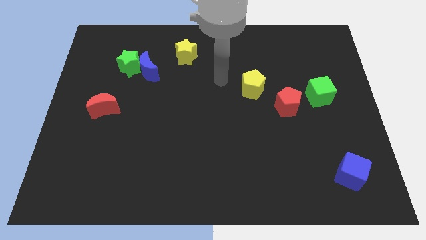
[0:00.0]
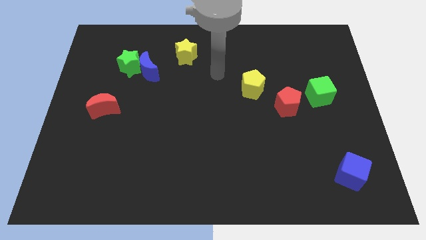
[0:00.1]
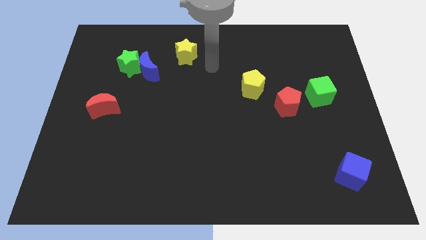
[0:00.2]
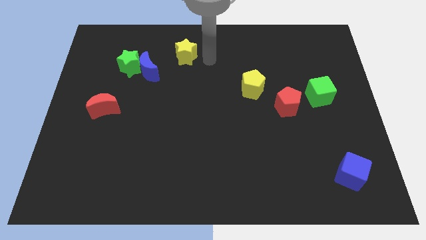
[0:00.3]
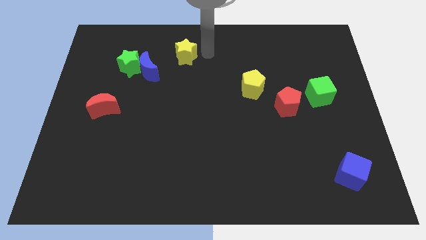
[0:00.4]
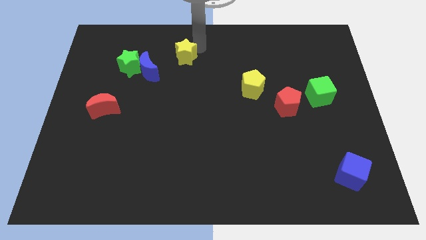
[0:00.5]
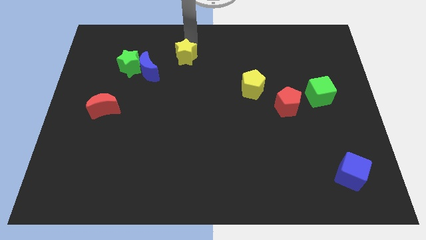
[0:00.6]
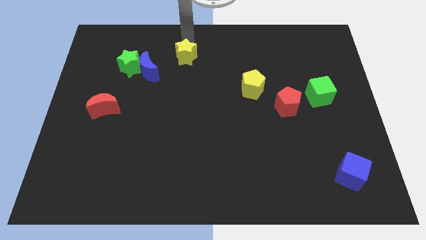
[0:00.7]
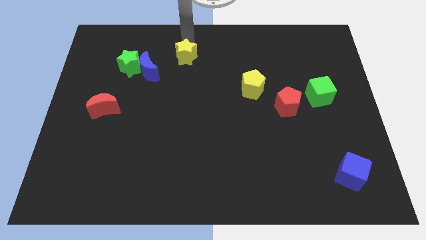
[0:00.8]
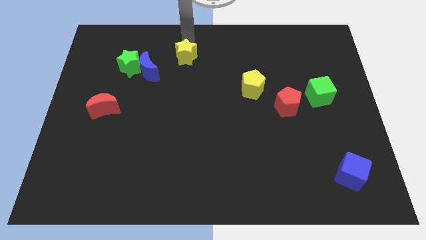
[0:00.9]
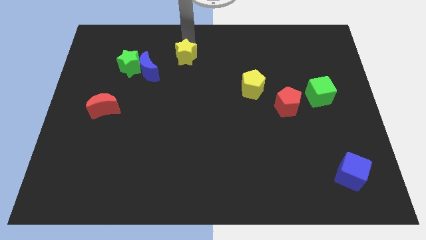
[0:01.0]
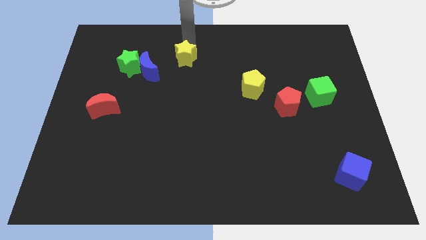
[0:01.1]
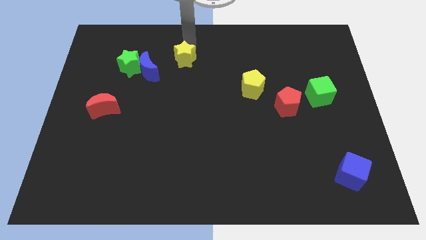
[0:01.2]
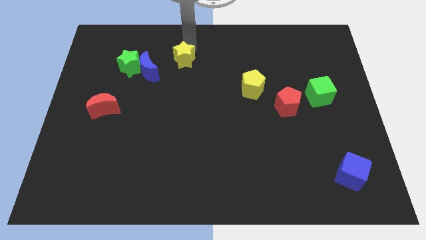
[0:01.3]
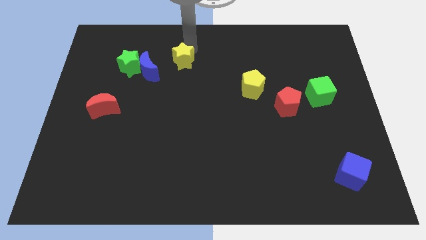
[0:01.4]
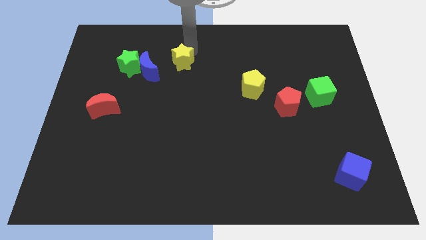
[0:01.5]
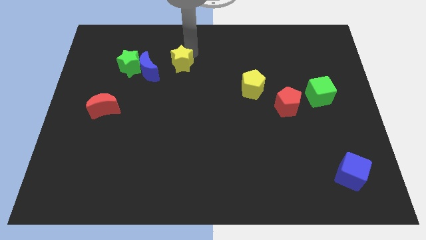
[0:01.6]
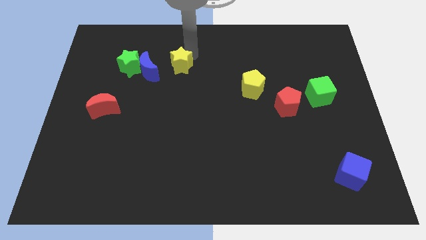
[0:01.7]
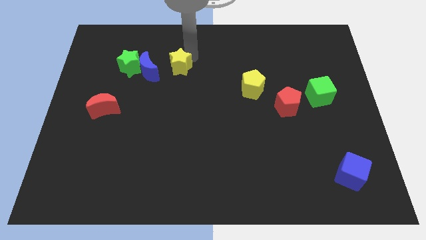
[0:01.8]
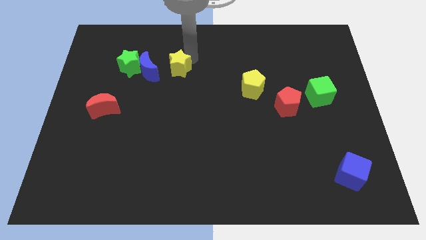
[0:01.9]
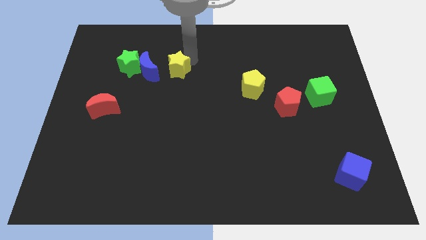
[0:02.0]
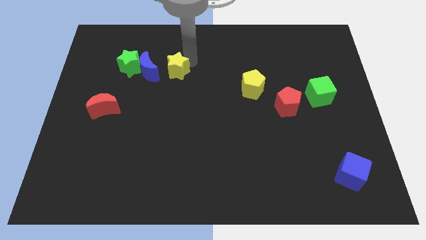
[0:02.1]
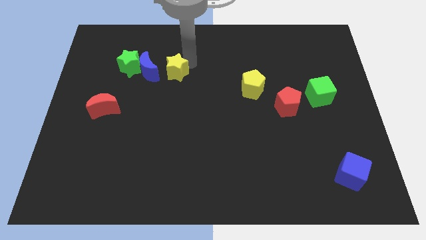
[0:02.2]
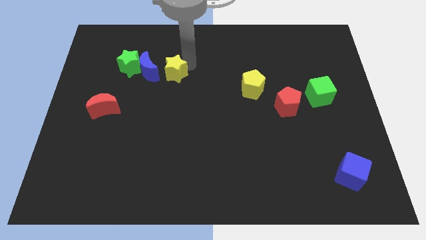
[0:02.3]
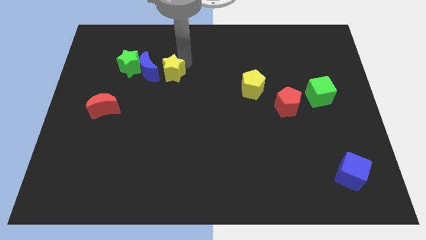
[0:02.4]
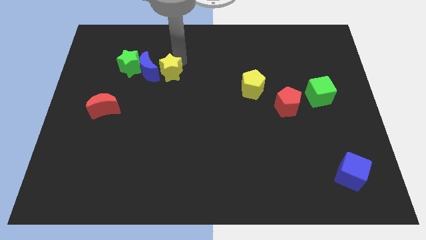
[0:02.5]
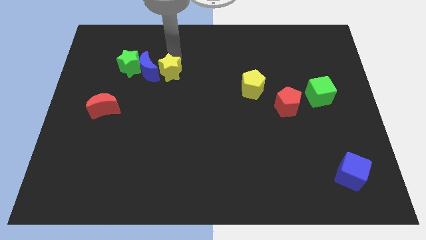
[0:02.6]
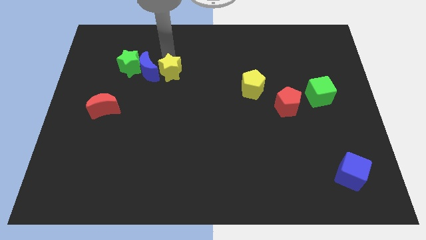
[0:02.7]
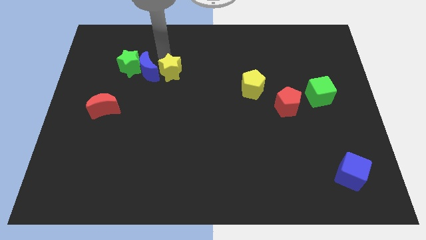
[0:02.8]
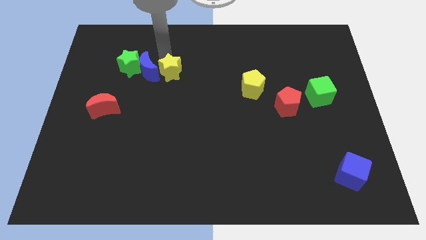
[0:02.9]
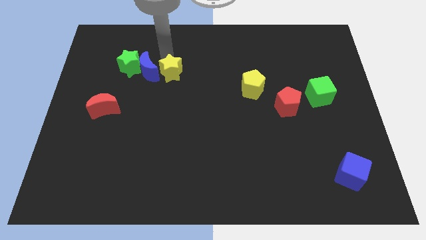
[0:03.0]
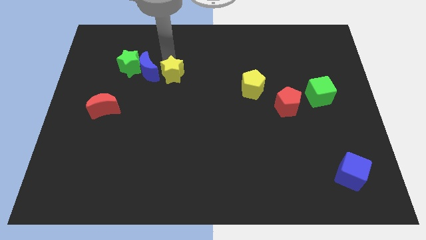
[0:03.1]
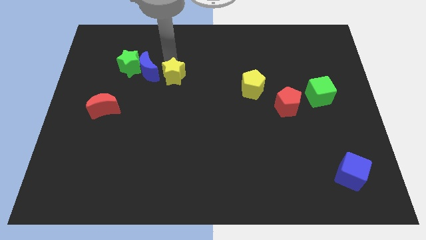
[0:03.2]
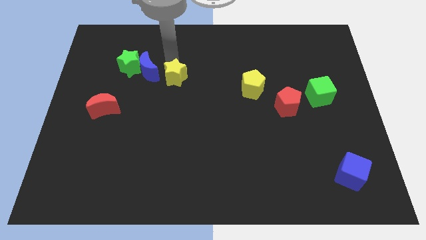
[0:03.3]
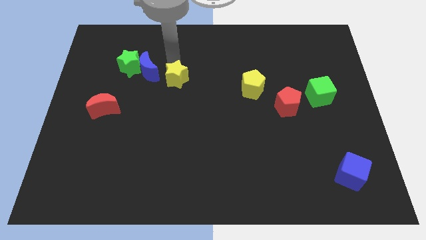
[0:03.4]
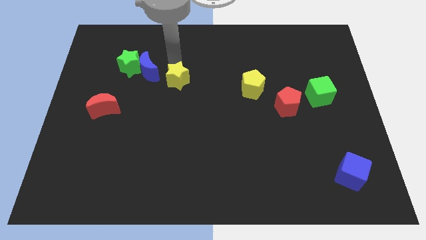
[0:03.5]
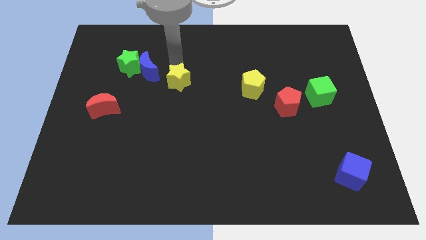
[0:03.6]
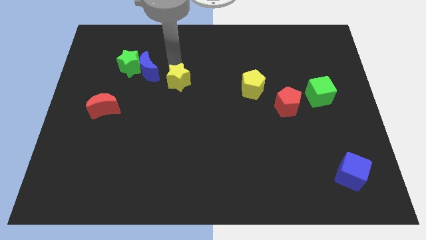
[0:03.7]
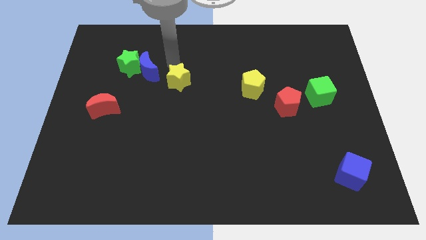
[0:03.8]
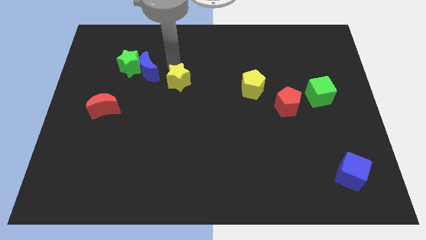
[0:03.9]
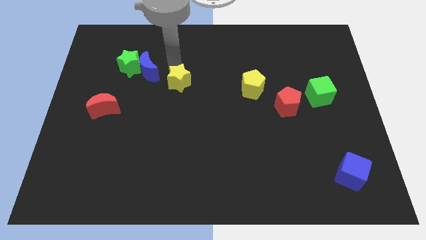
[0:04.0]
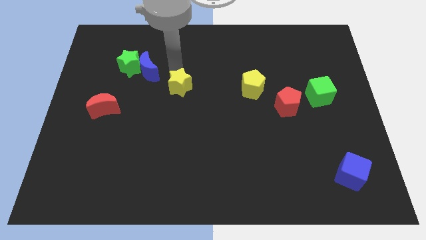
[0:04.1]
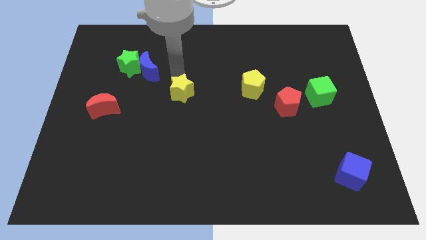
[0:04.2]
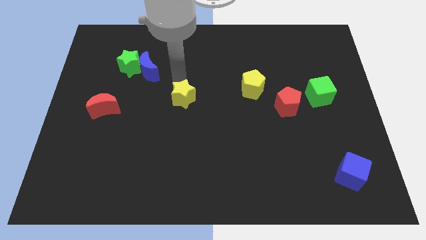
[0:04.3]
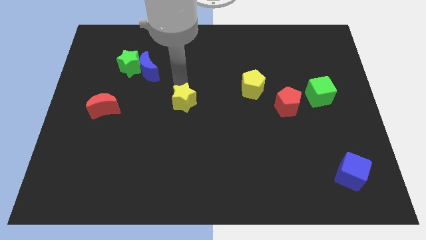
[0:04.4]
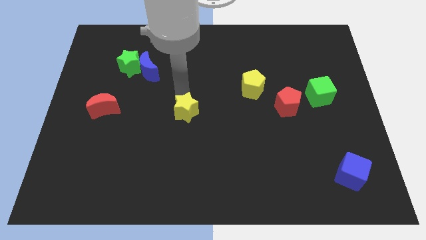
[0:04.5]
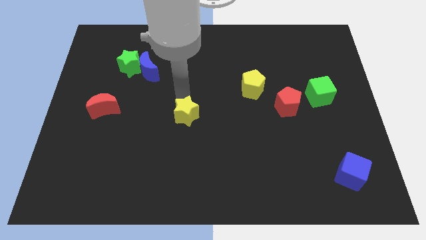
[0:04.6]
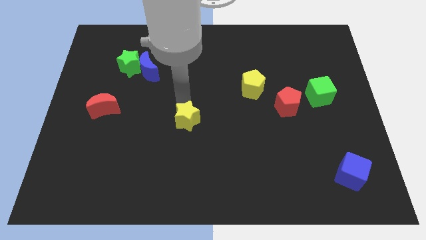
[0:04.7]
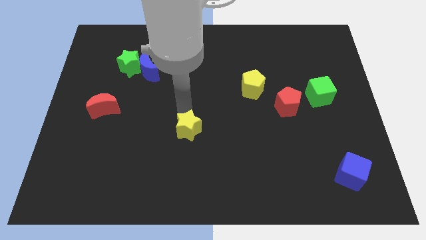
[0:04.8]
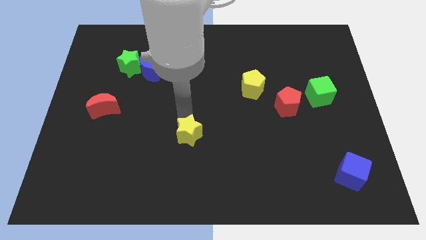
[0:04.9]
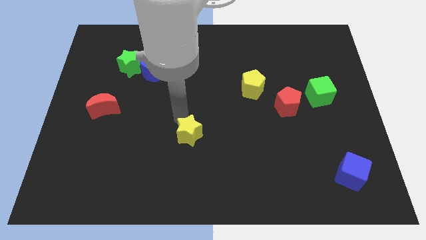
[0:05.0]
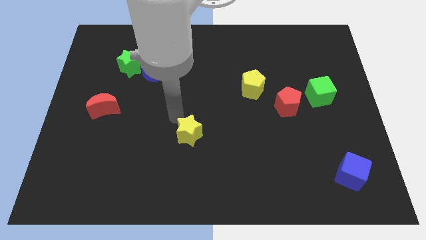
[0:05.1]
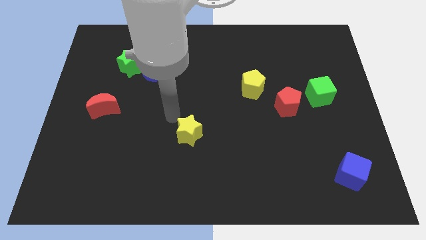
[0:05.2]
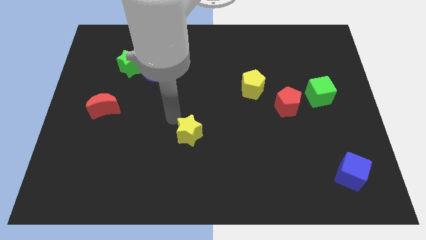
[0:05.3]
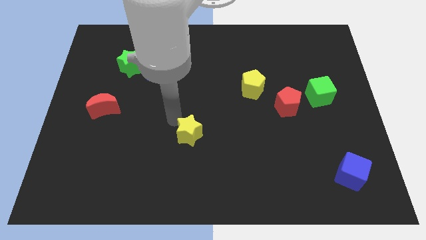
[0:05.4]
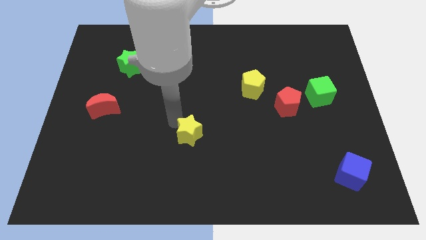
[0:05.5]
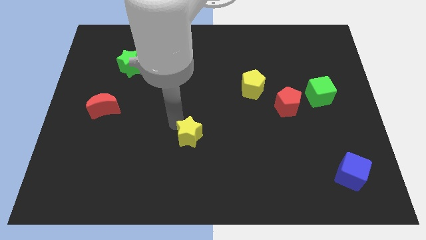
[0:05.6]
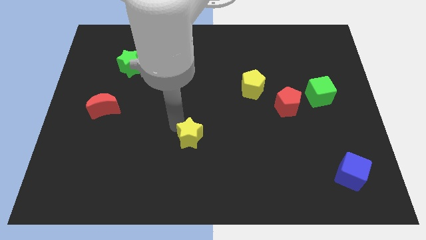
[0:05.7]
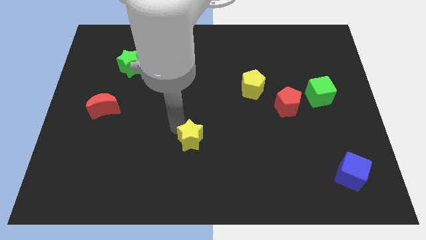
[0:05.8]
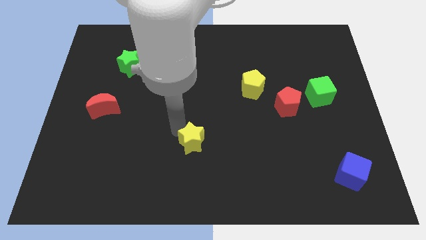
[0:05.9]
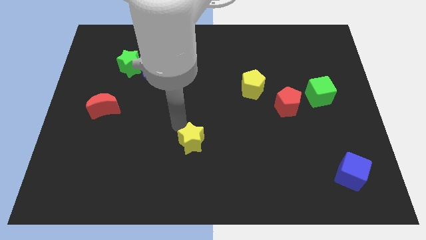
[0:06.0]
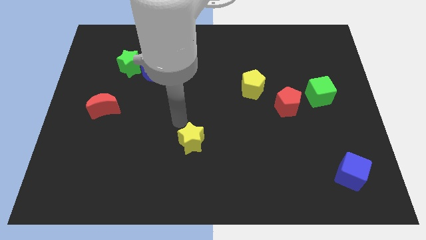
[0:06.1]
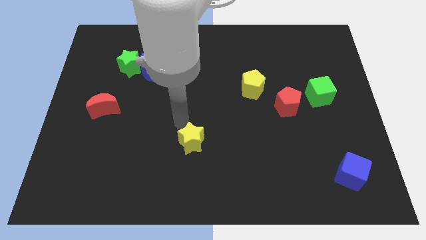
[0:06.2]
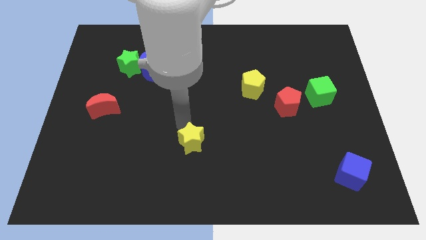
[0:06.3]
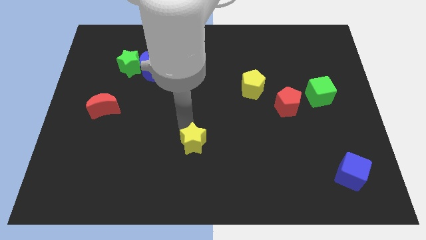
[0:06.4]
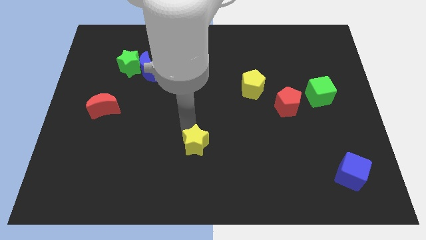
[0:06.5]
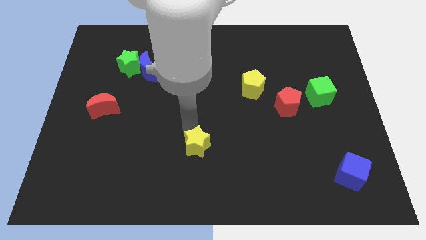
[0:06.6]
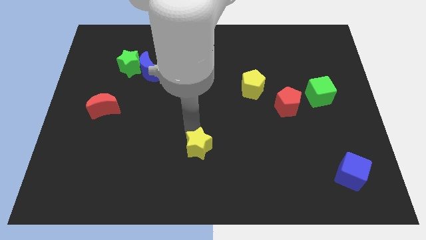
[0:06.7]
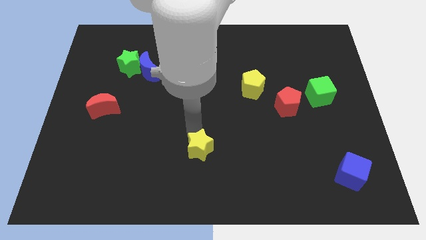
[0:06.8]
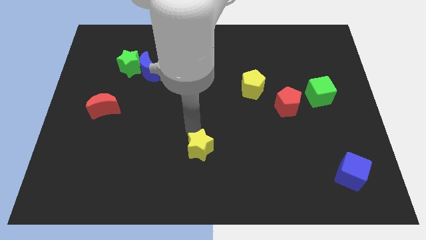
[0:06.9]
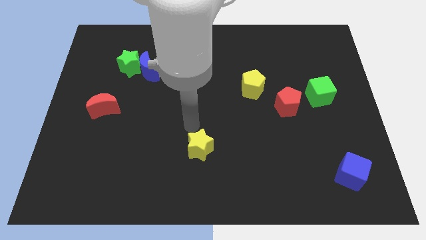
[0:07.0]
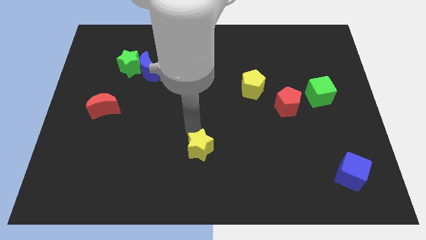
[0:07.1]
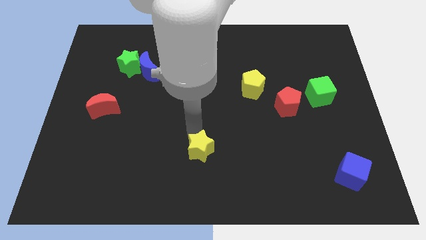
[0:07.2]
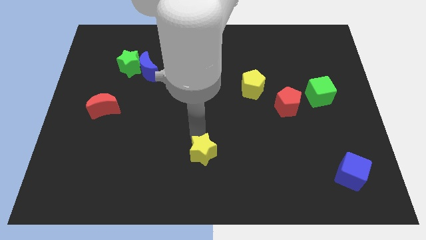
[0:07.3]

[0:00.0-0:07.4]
slide the yellow star to the bottom side
